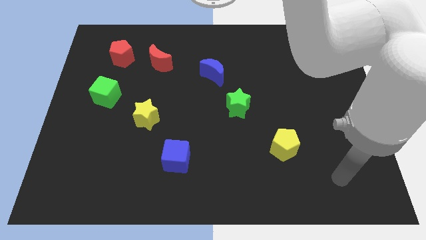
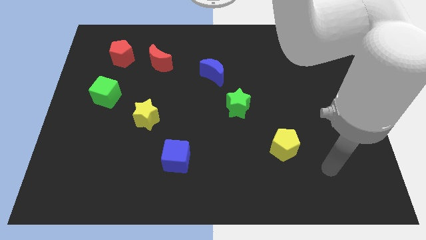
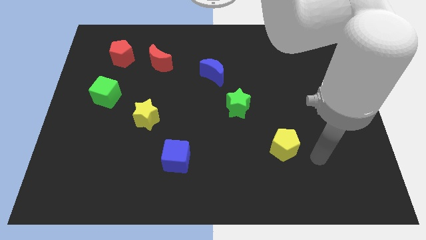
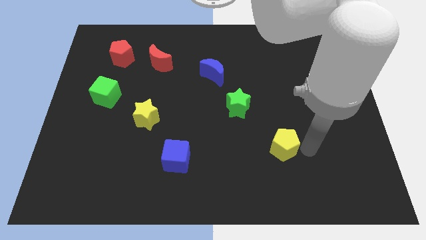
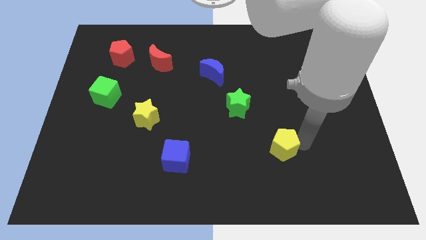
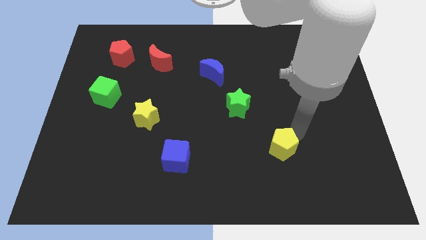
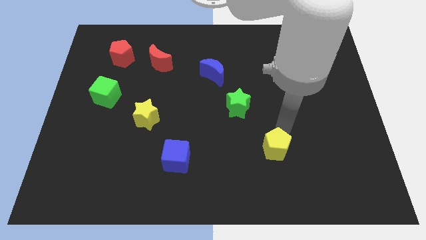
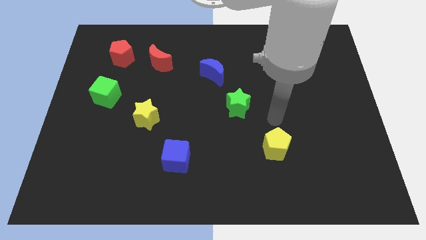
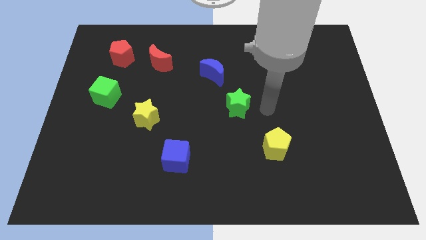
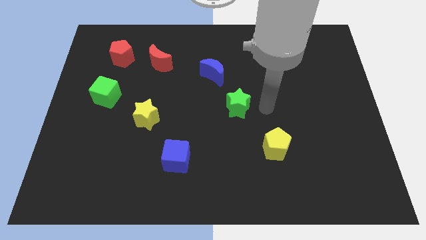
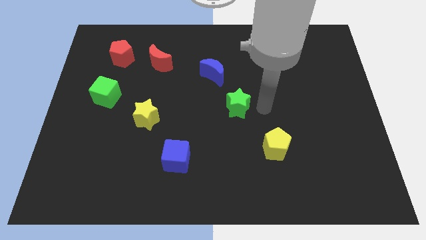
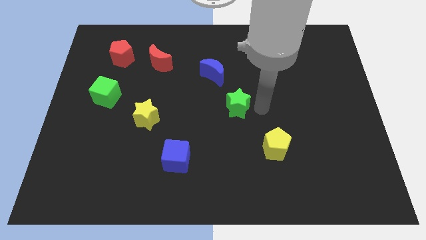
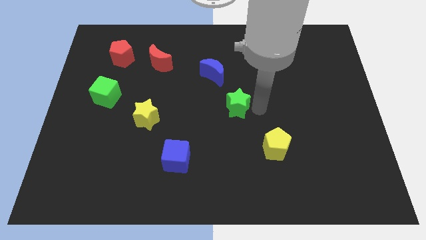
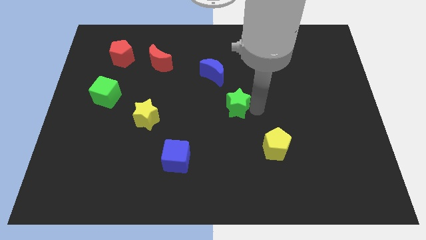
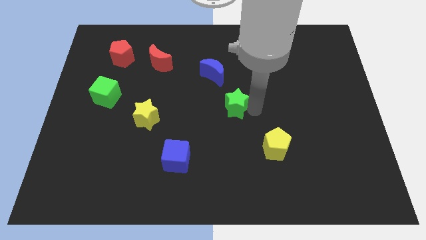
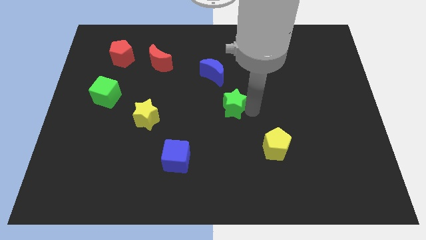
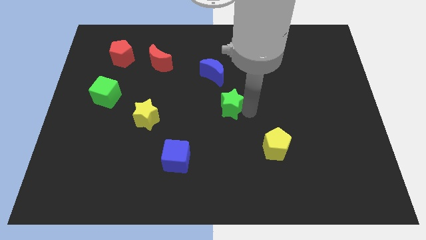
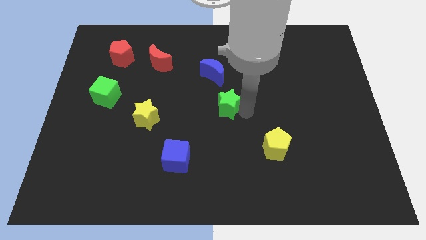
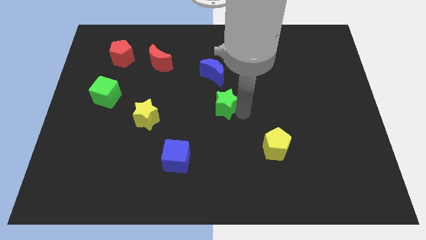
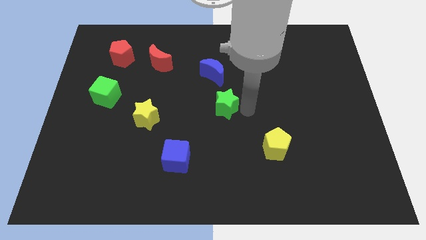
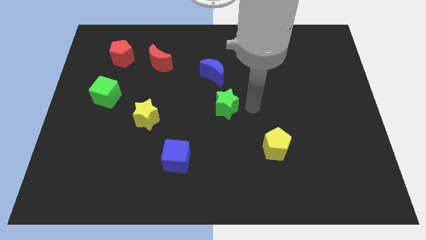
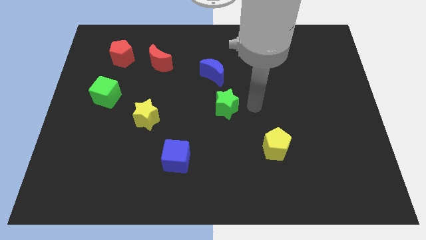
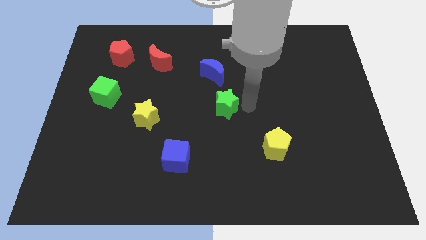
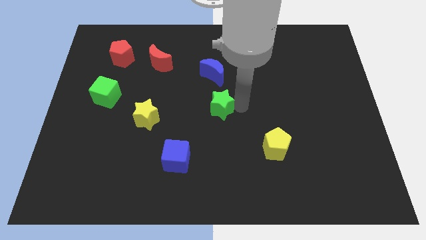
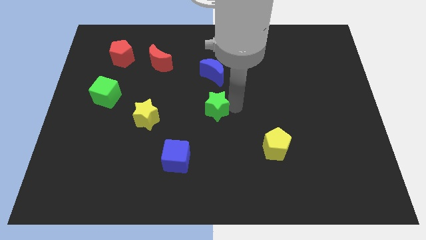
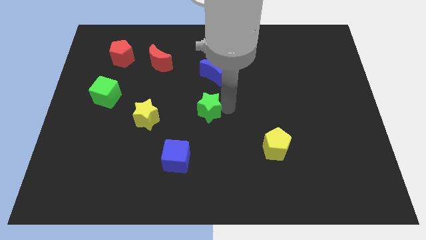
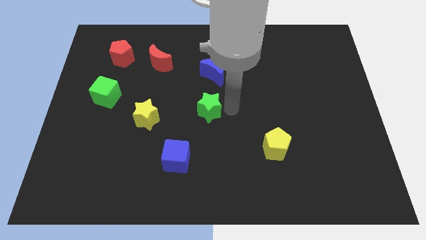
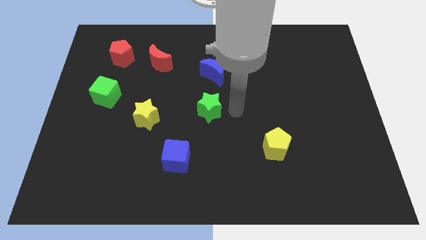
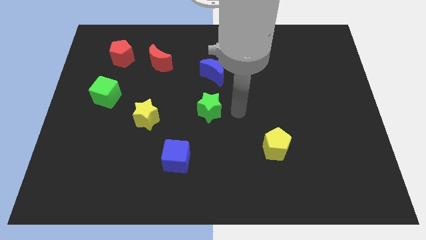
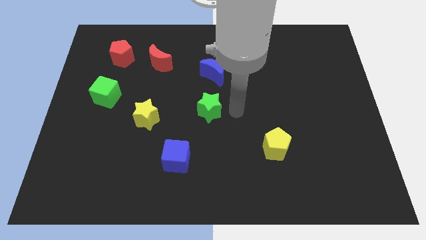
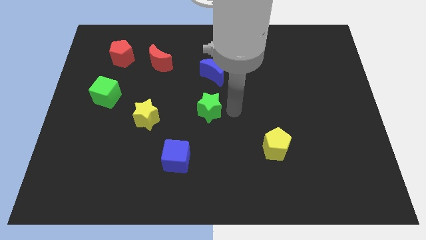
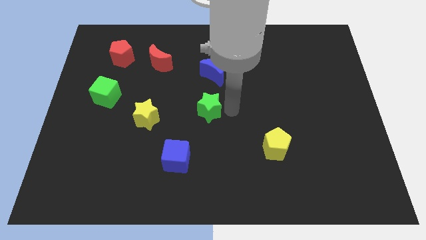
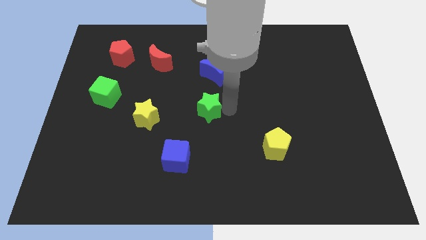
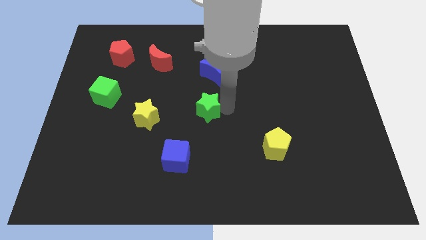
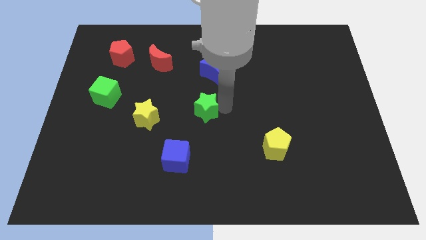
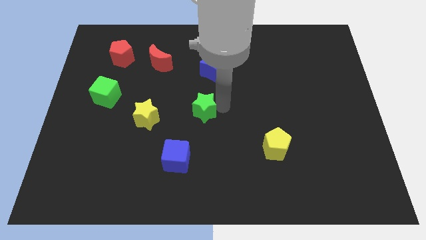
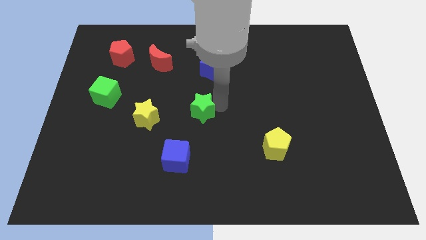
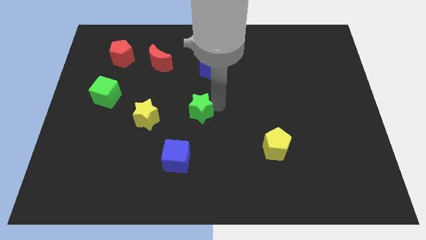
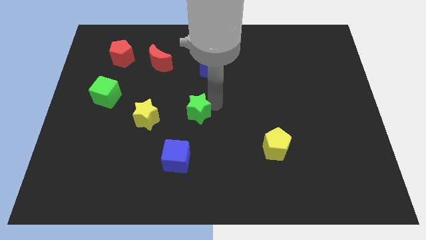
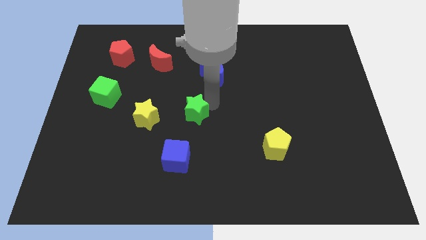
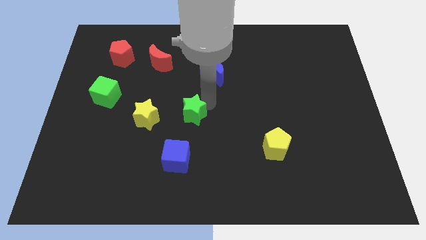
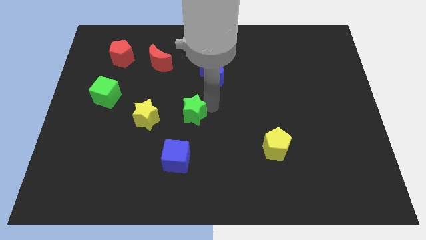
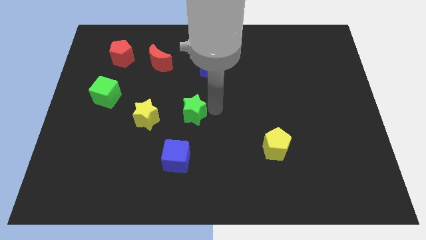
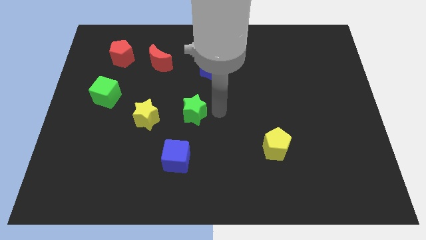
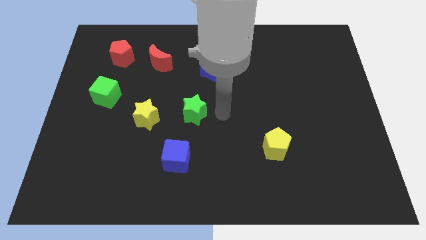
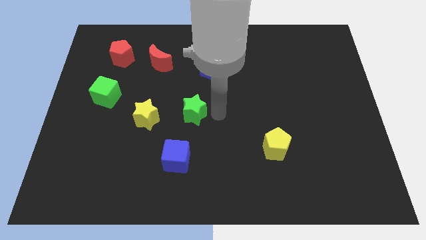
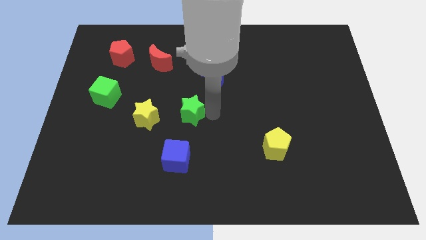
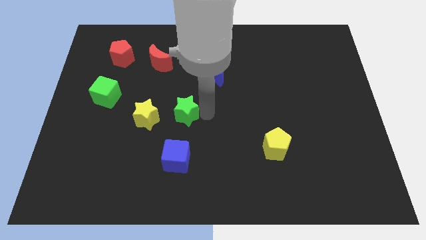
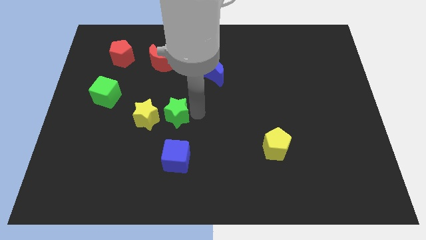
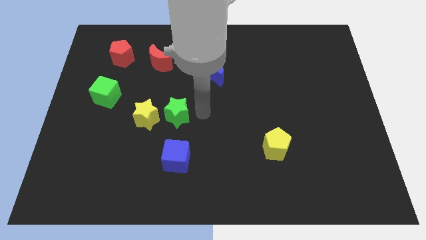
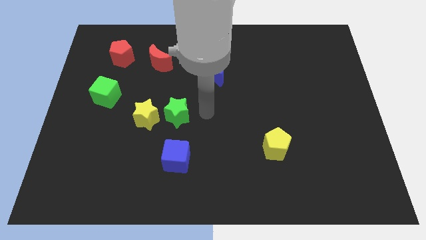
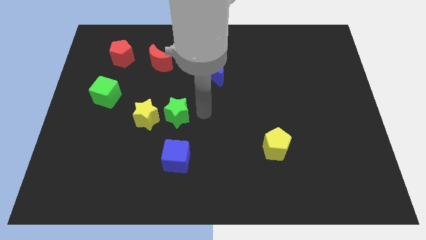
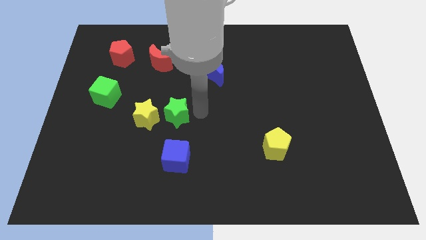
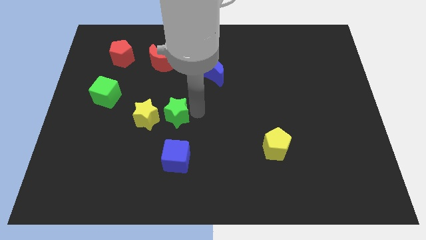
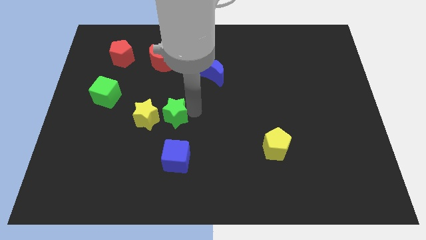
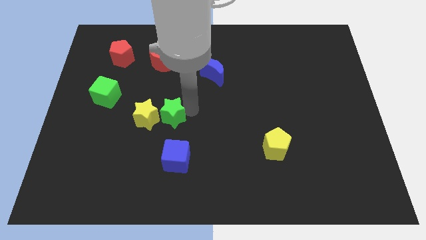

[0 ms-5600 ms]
slide the green star close to the yellow star

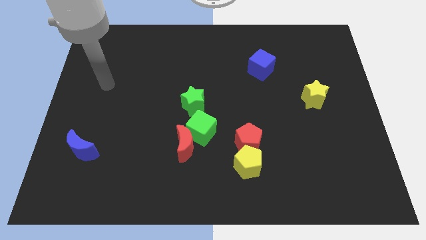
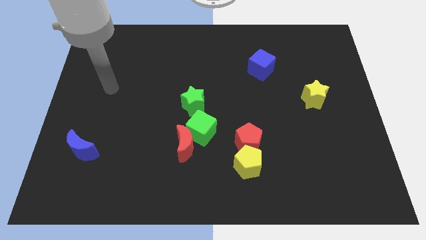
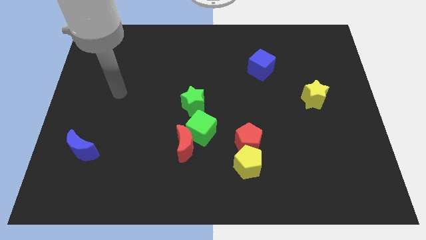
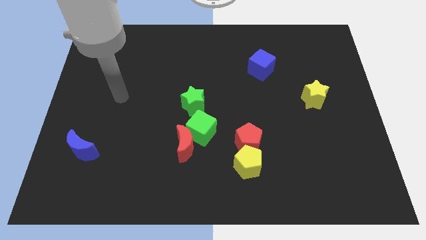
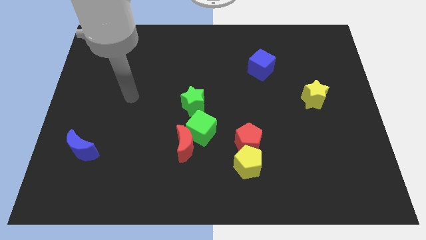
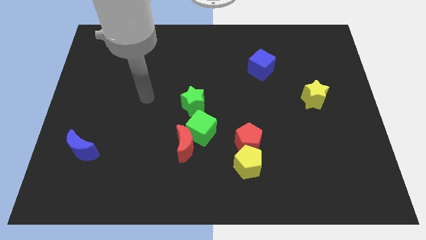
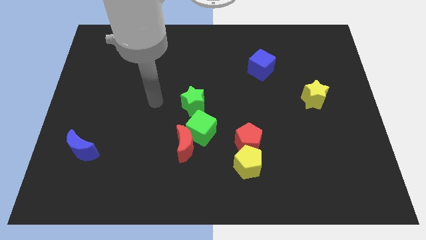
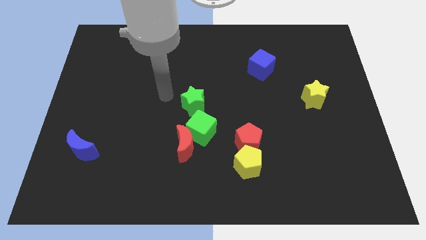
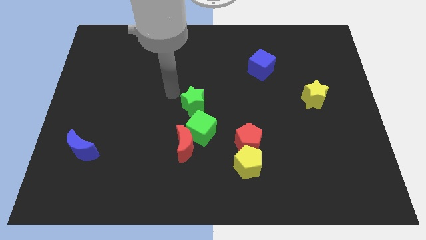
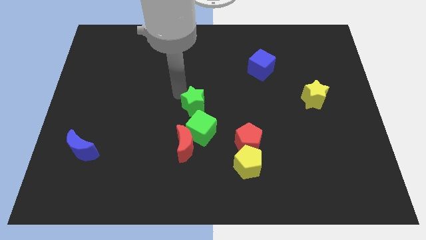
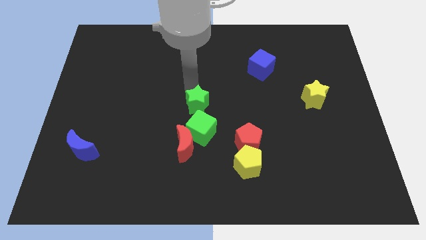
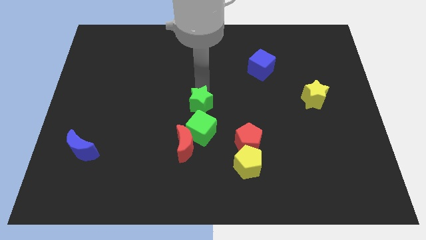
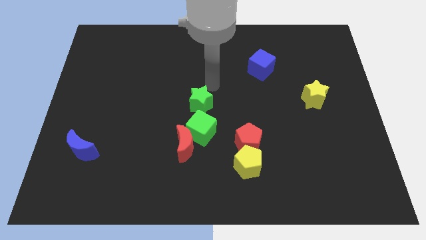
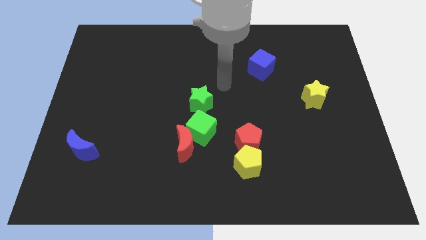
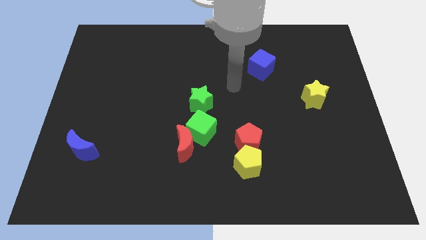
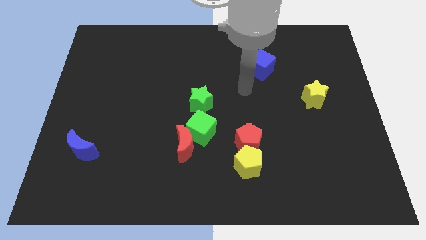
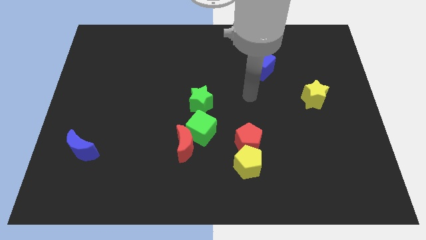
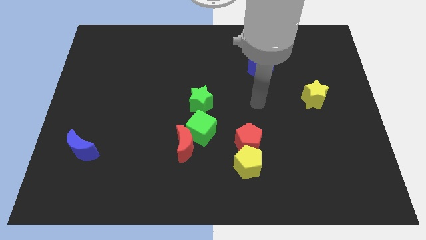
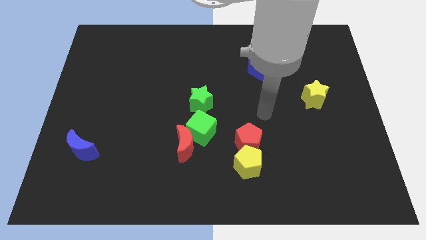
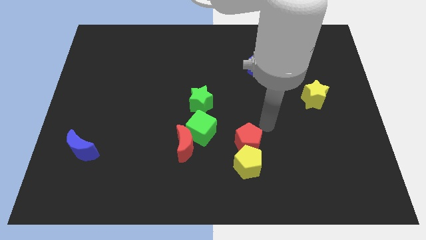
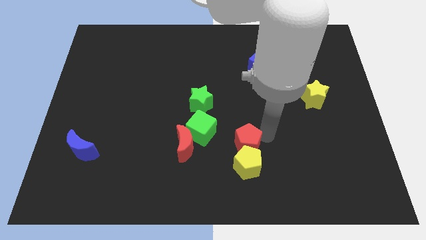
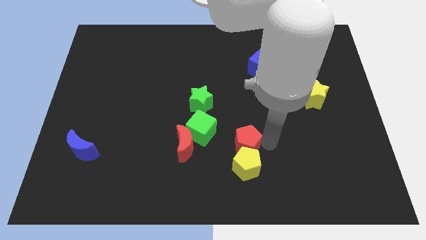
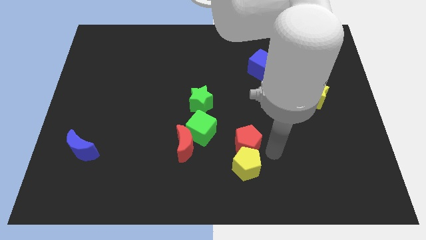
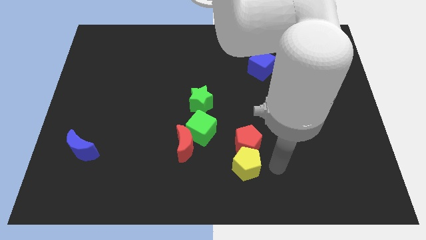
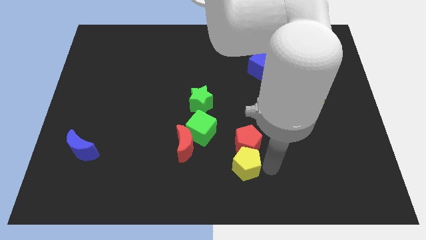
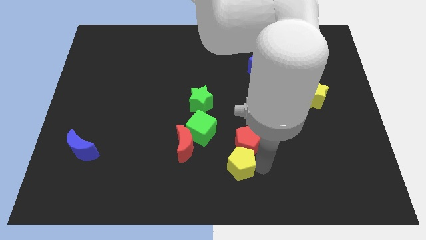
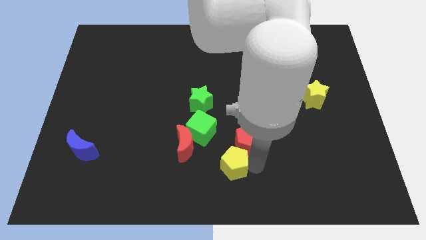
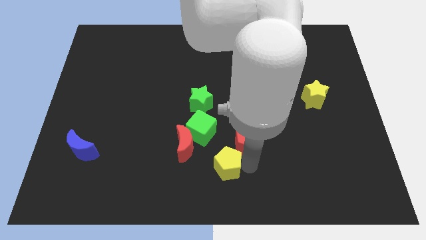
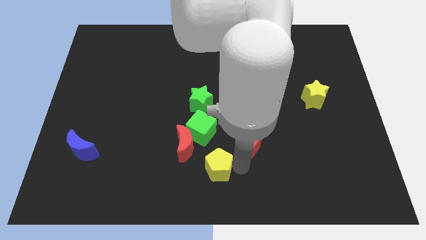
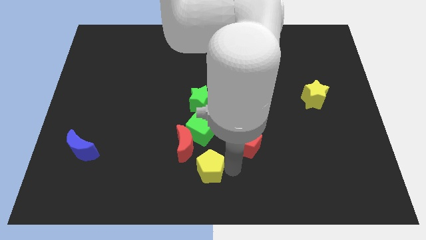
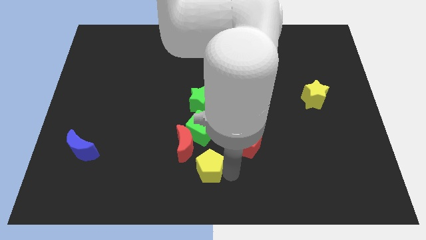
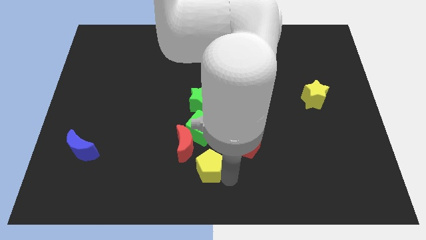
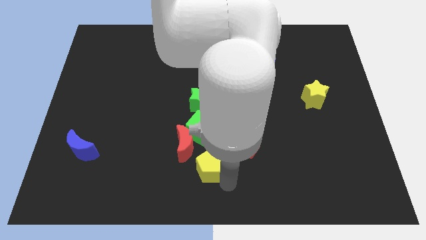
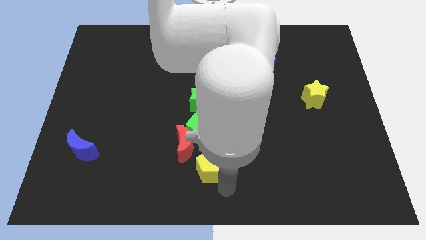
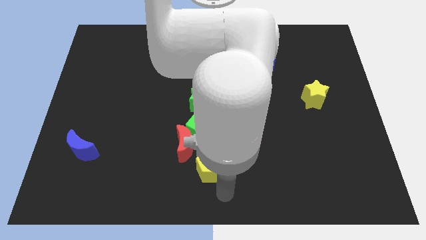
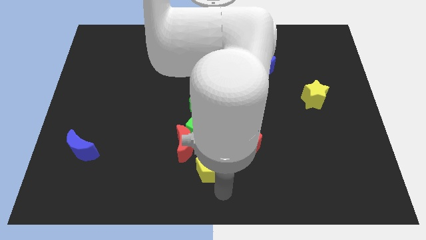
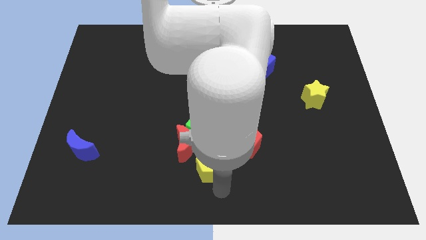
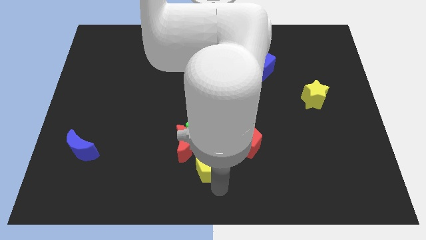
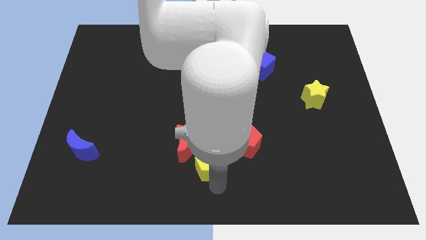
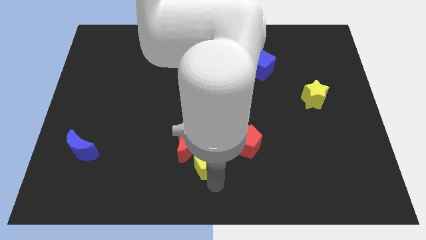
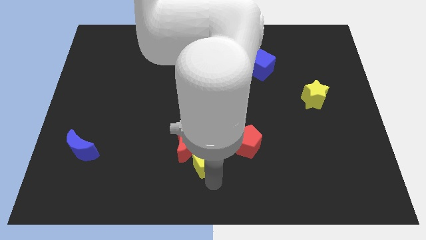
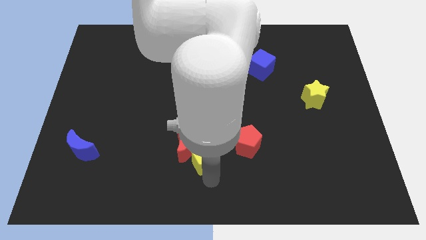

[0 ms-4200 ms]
put the yellow pentagon next to the red moon
